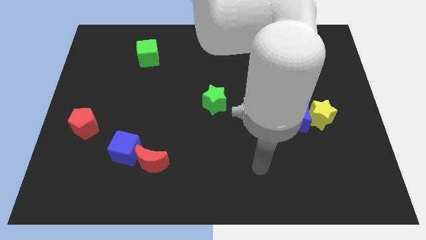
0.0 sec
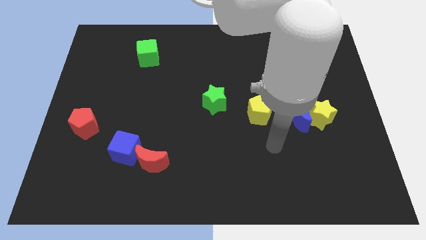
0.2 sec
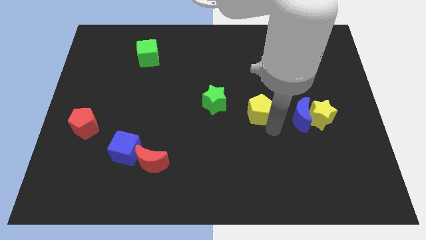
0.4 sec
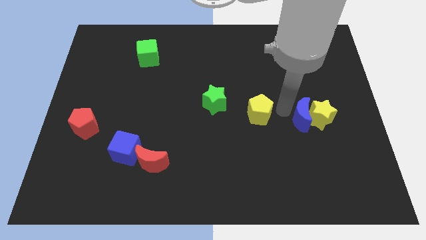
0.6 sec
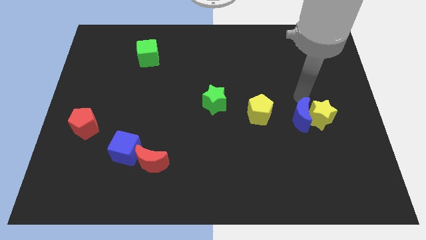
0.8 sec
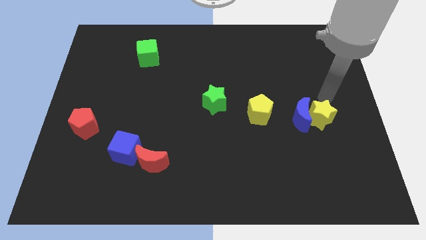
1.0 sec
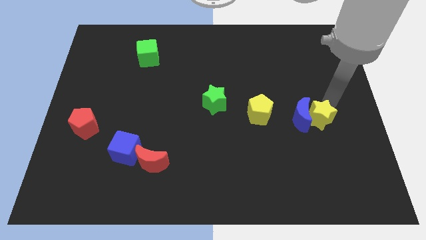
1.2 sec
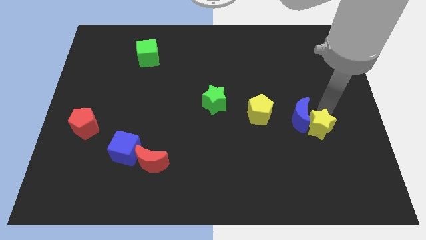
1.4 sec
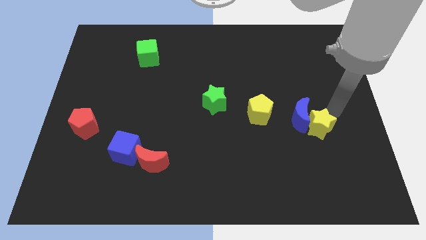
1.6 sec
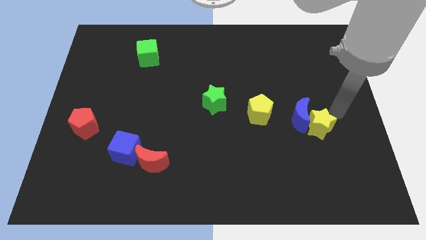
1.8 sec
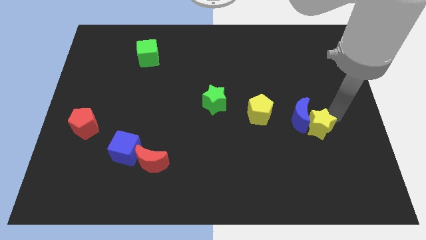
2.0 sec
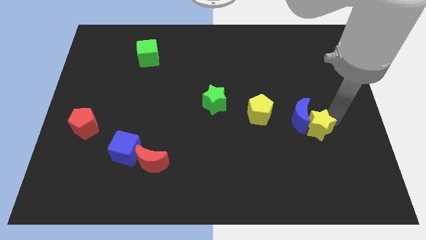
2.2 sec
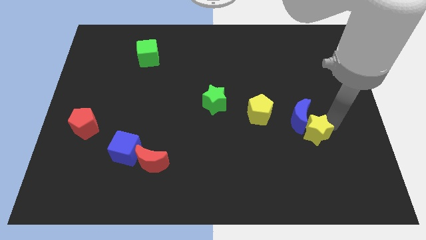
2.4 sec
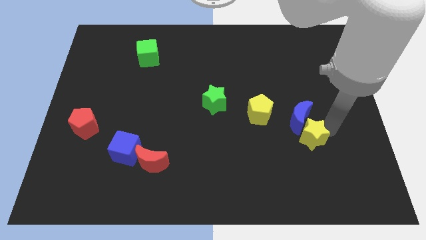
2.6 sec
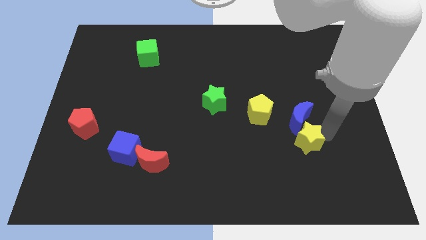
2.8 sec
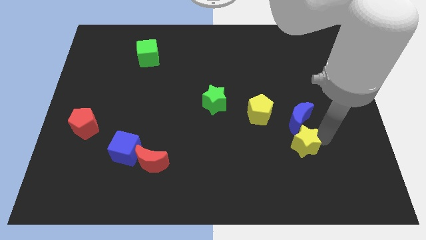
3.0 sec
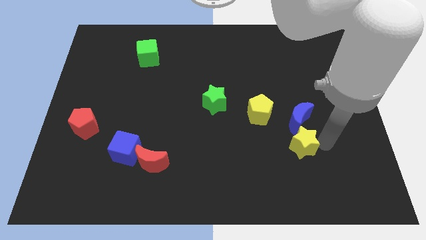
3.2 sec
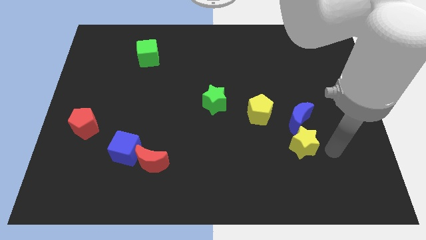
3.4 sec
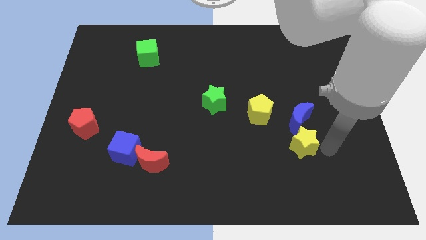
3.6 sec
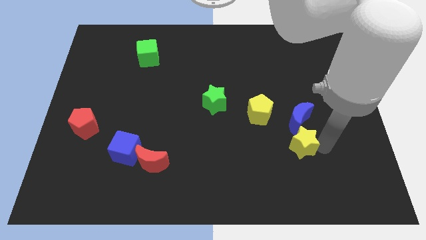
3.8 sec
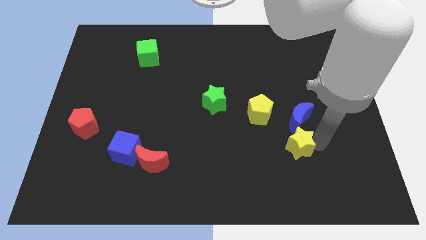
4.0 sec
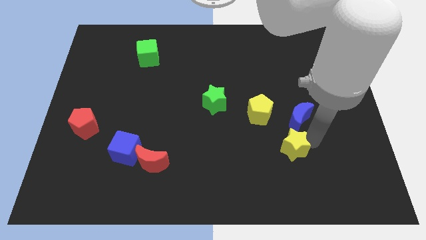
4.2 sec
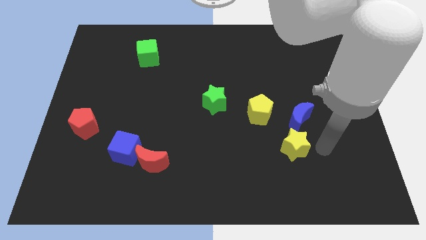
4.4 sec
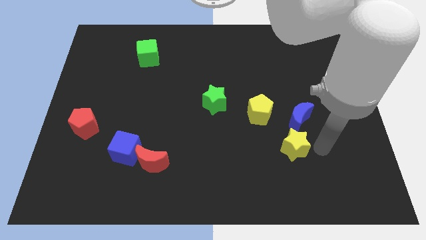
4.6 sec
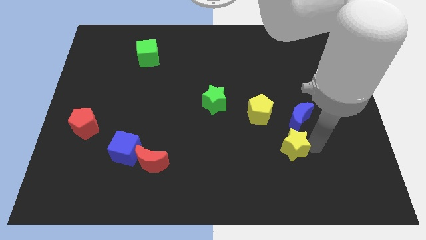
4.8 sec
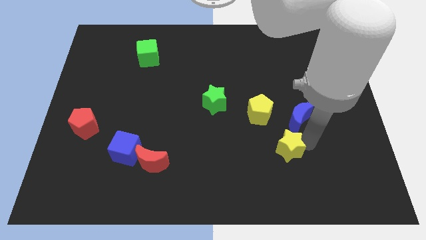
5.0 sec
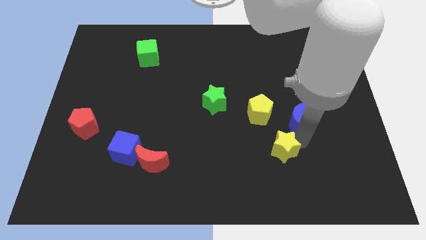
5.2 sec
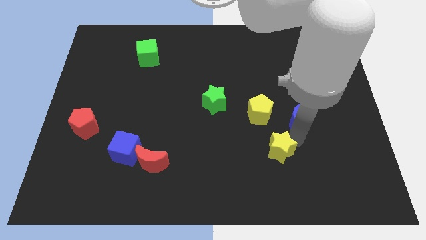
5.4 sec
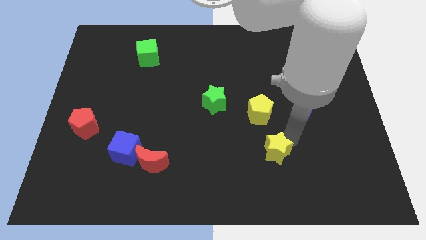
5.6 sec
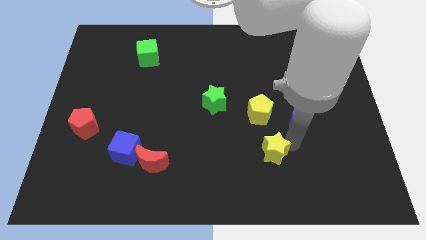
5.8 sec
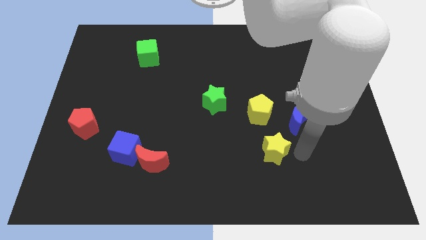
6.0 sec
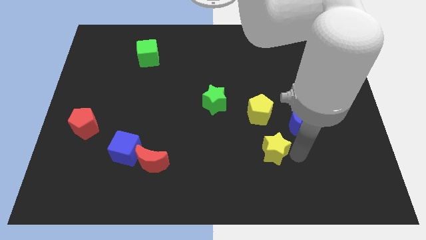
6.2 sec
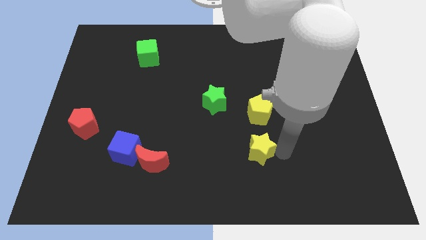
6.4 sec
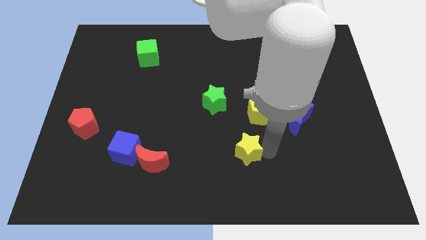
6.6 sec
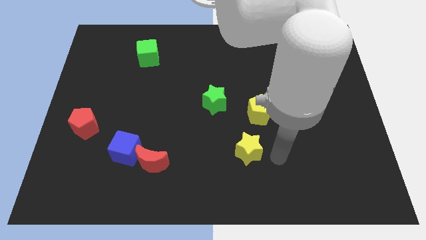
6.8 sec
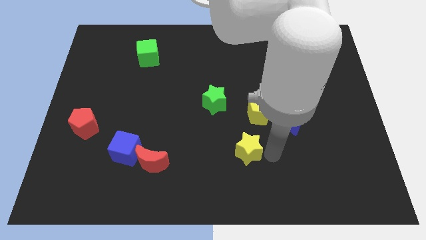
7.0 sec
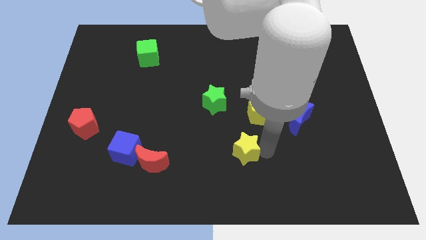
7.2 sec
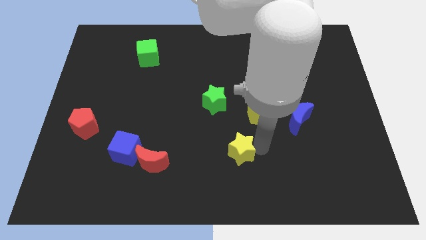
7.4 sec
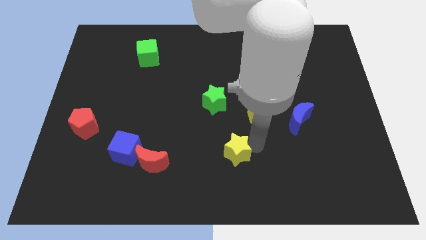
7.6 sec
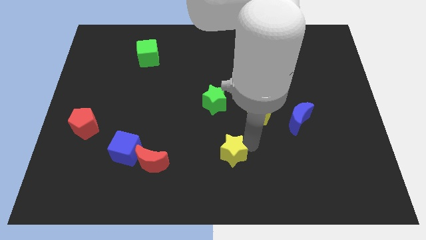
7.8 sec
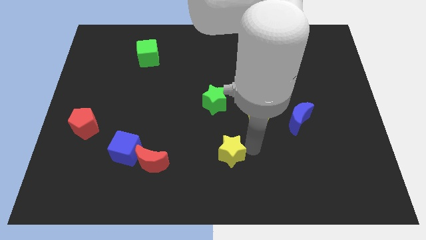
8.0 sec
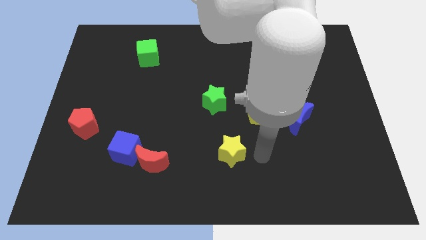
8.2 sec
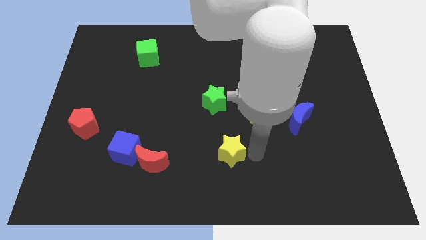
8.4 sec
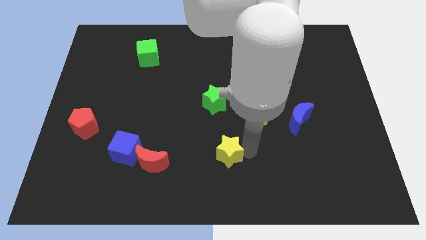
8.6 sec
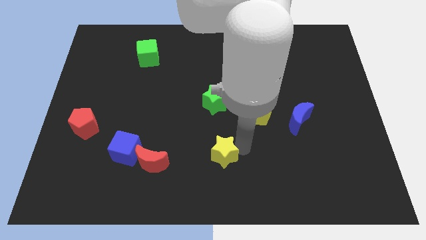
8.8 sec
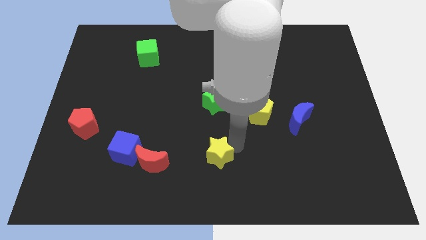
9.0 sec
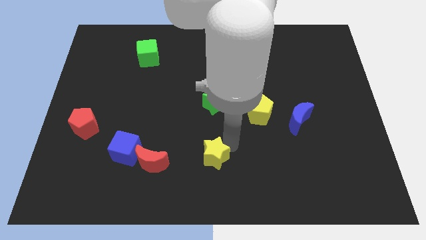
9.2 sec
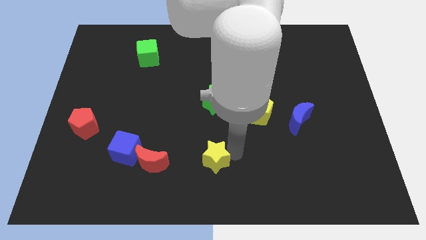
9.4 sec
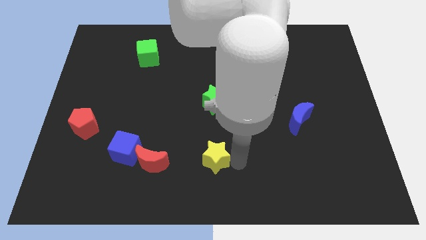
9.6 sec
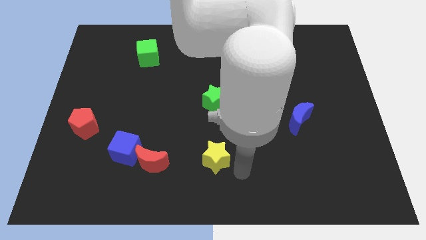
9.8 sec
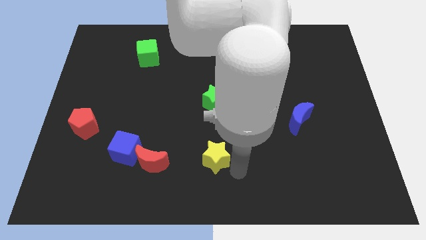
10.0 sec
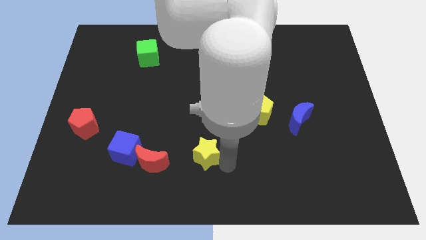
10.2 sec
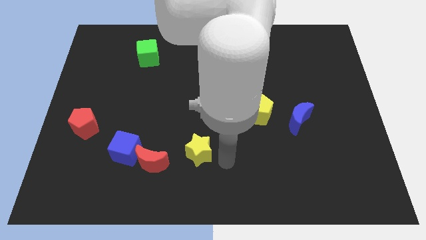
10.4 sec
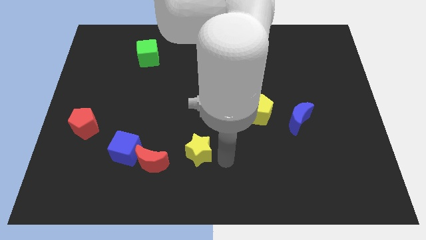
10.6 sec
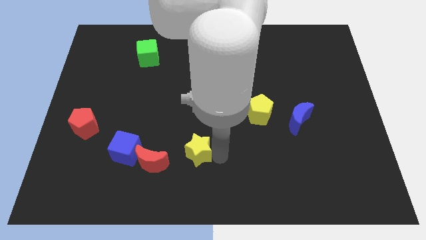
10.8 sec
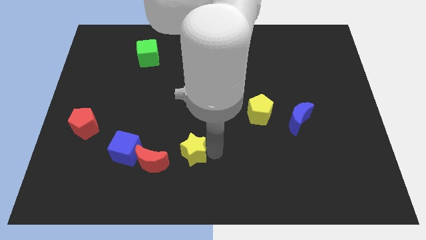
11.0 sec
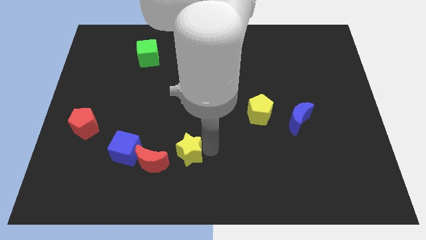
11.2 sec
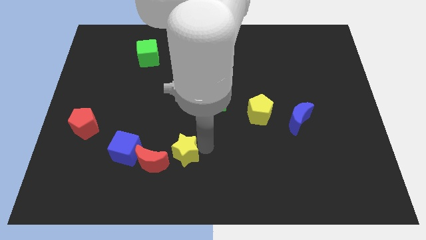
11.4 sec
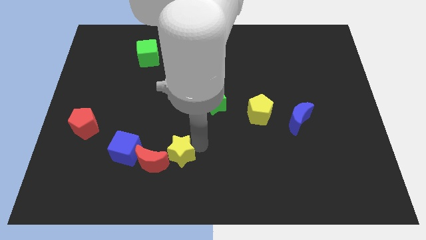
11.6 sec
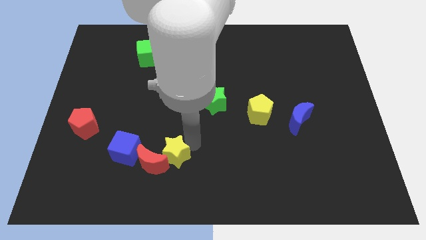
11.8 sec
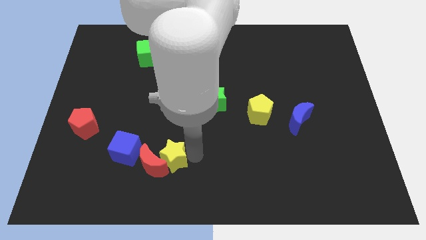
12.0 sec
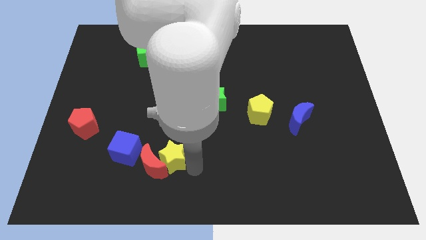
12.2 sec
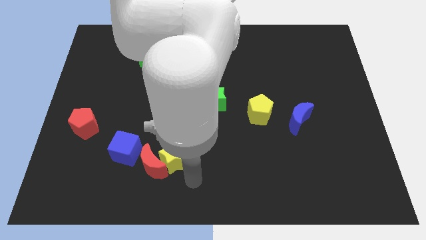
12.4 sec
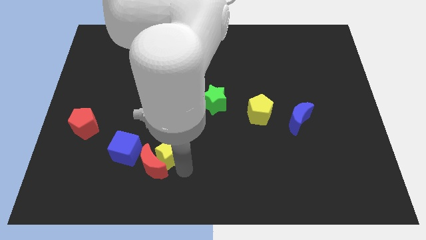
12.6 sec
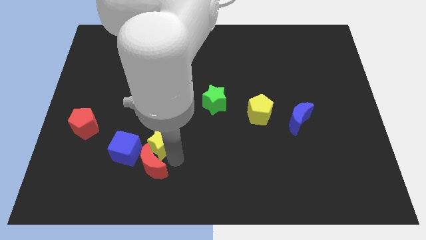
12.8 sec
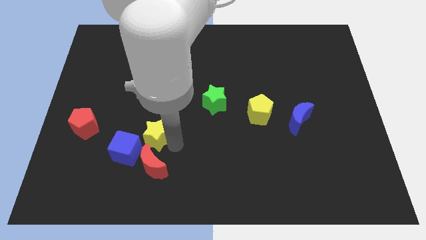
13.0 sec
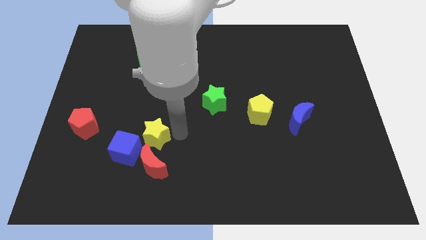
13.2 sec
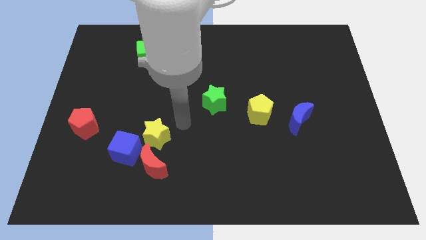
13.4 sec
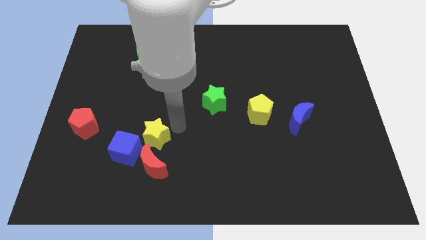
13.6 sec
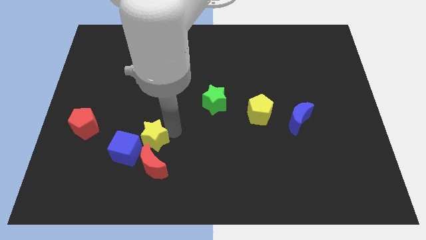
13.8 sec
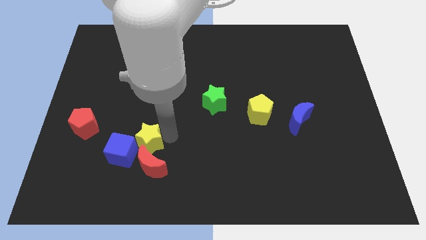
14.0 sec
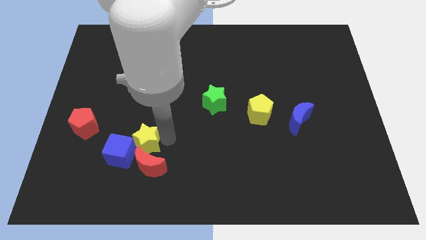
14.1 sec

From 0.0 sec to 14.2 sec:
move the yellow star close to the blue cube

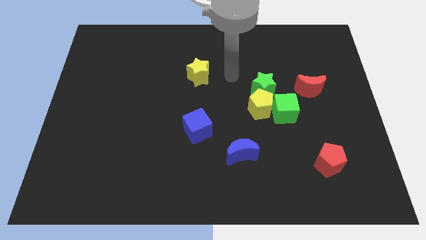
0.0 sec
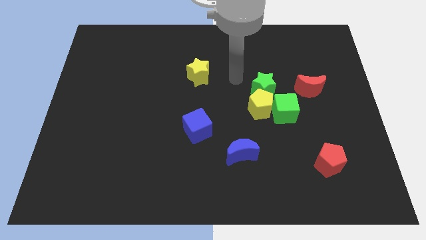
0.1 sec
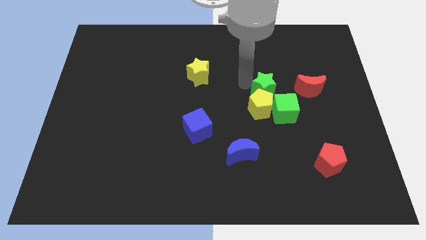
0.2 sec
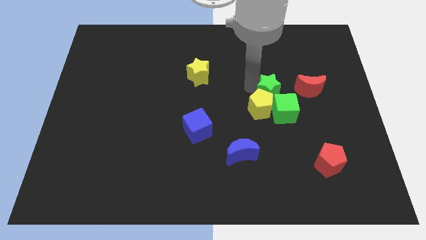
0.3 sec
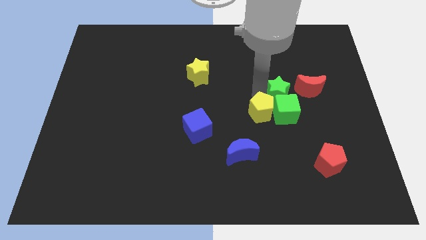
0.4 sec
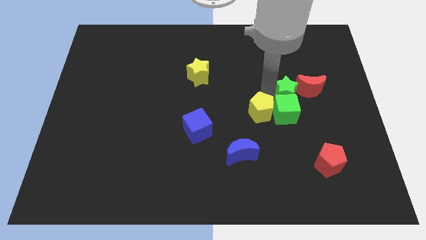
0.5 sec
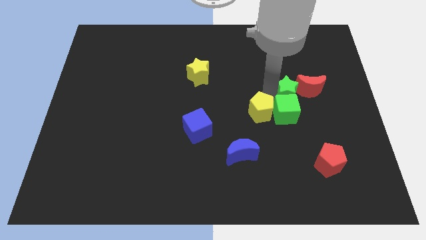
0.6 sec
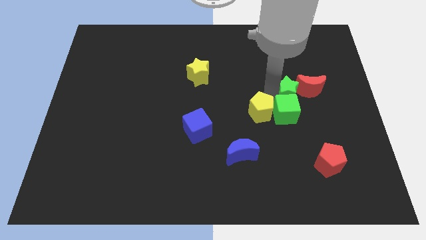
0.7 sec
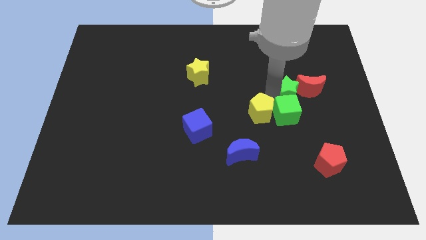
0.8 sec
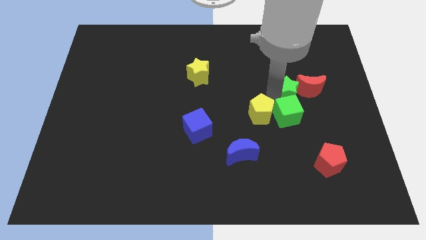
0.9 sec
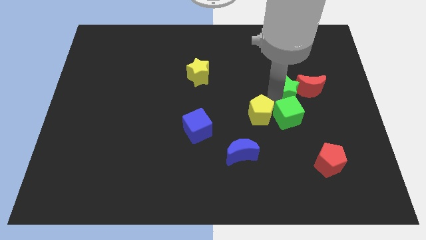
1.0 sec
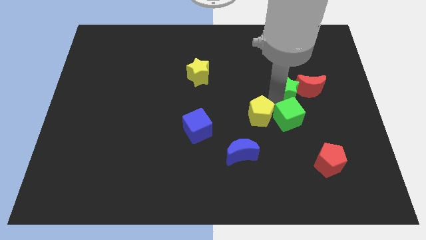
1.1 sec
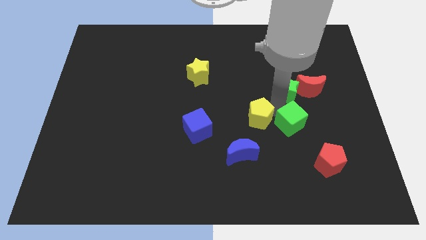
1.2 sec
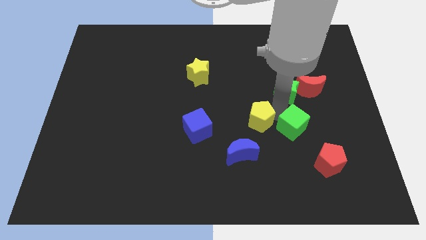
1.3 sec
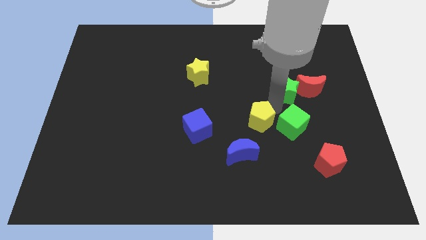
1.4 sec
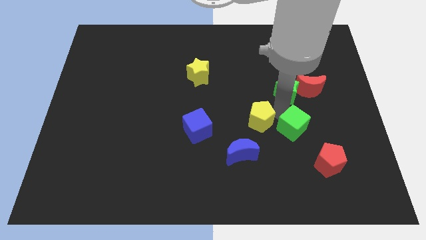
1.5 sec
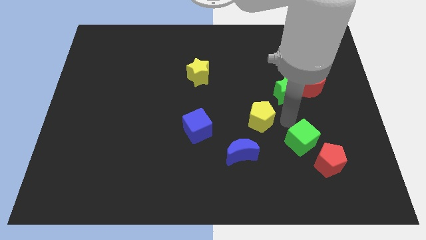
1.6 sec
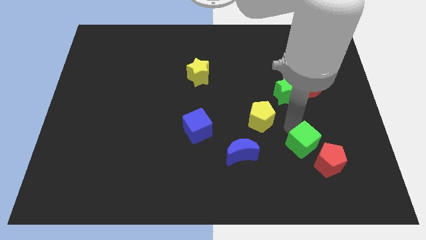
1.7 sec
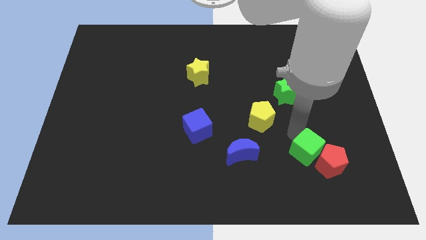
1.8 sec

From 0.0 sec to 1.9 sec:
push the green cube close to the red pentagon
